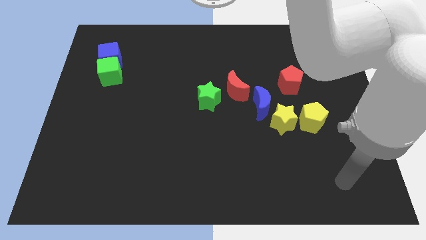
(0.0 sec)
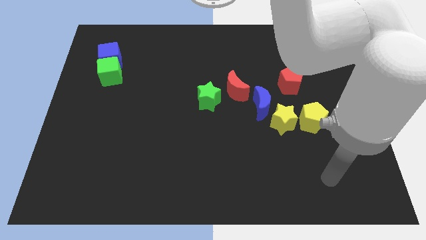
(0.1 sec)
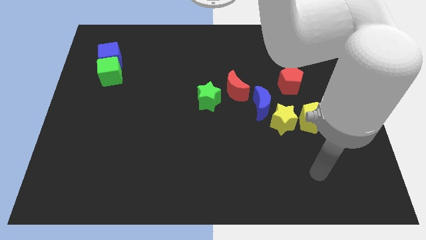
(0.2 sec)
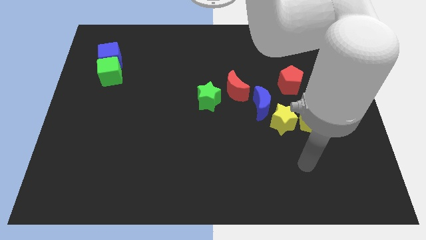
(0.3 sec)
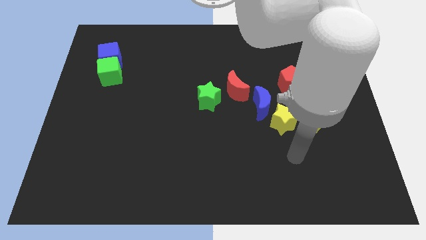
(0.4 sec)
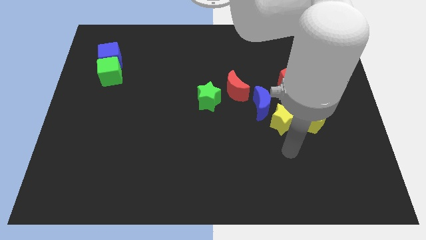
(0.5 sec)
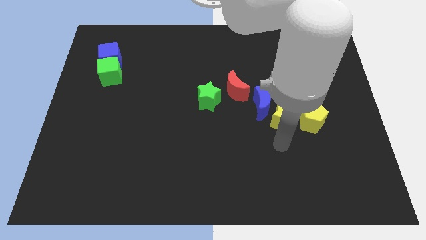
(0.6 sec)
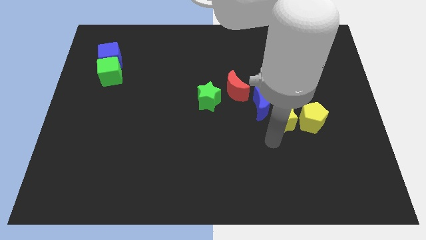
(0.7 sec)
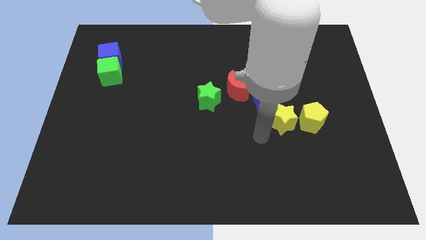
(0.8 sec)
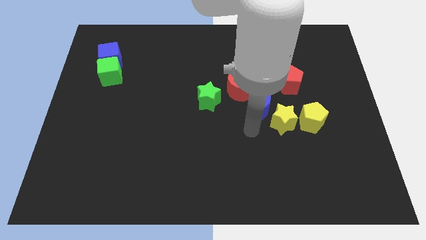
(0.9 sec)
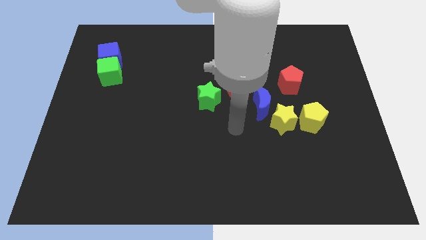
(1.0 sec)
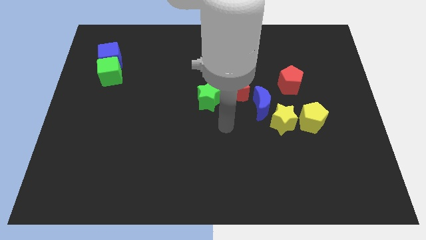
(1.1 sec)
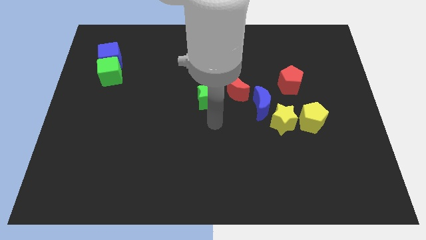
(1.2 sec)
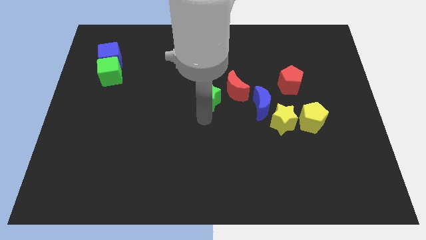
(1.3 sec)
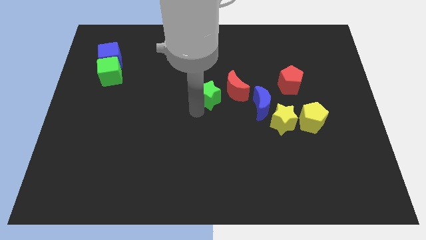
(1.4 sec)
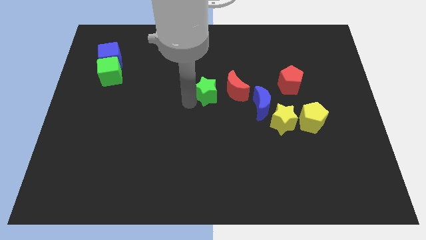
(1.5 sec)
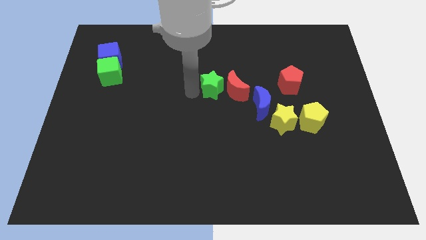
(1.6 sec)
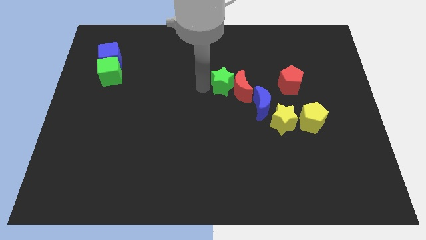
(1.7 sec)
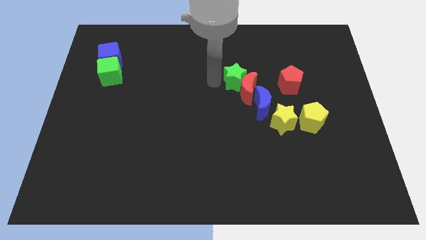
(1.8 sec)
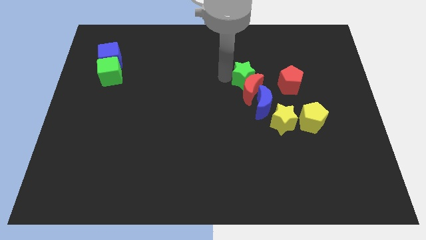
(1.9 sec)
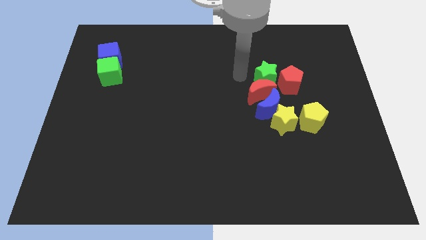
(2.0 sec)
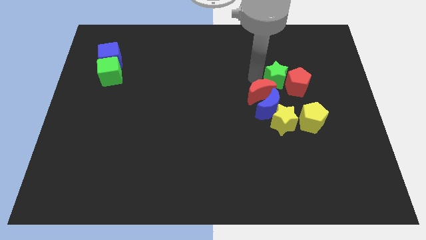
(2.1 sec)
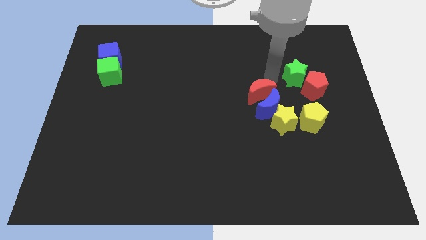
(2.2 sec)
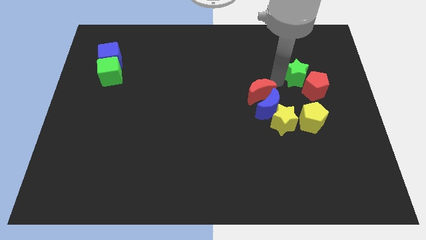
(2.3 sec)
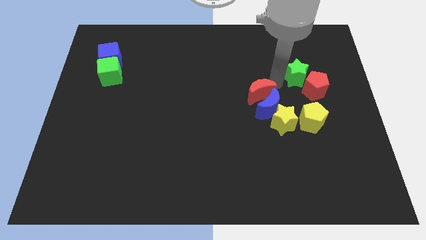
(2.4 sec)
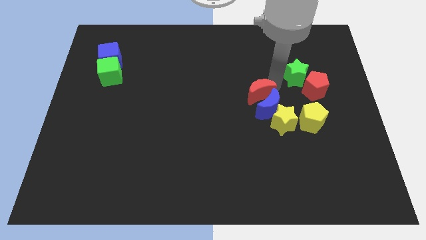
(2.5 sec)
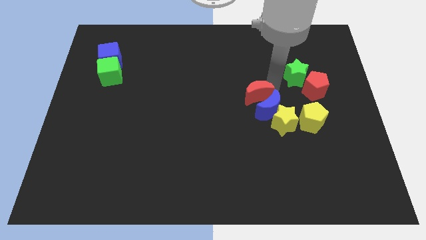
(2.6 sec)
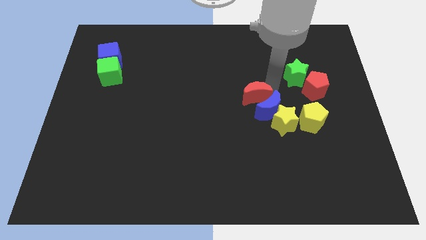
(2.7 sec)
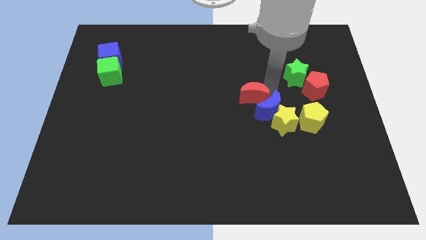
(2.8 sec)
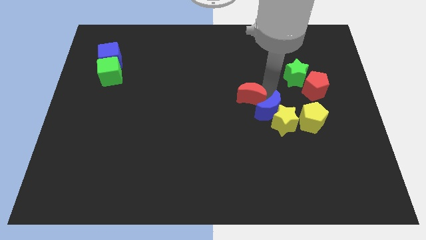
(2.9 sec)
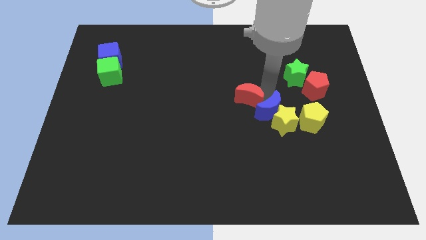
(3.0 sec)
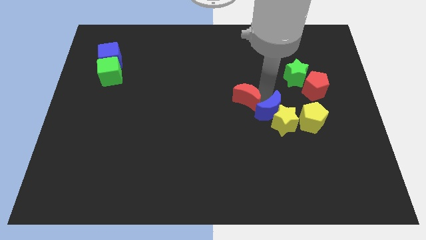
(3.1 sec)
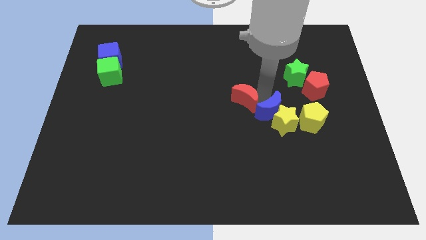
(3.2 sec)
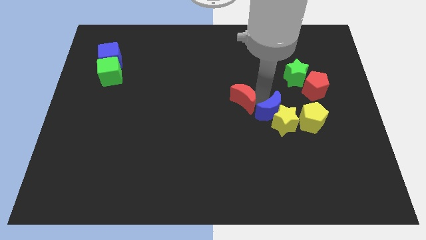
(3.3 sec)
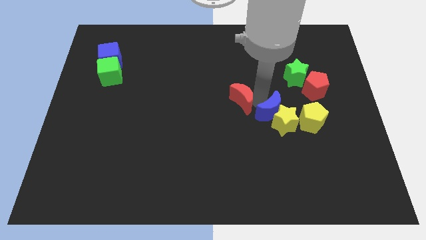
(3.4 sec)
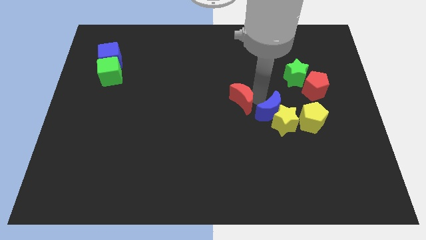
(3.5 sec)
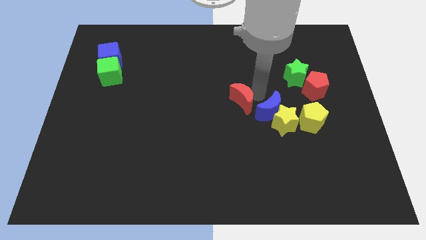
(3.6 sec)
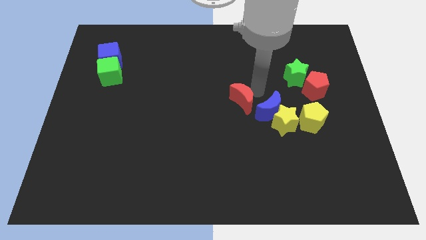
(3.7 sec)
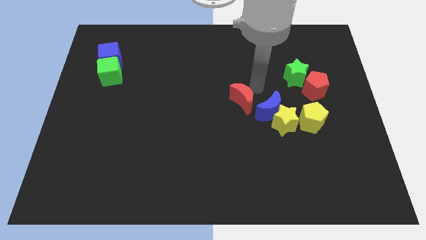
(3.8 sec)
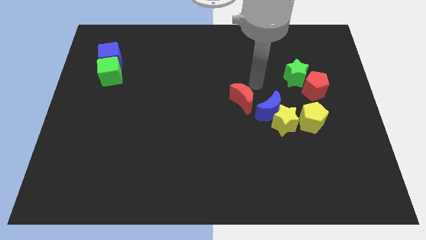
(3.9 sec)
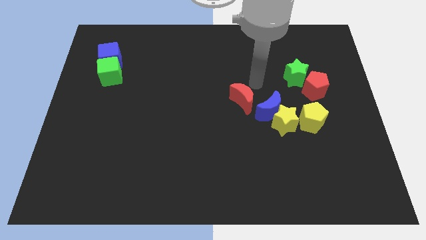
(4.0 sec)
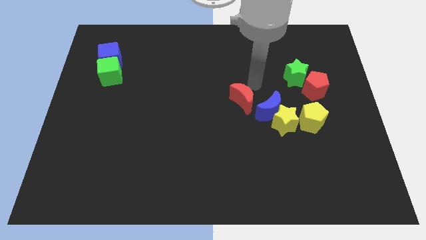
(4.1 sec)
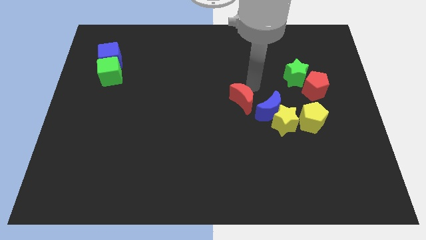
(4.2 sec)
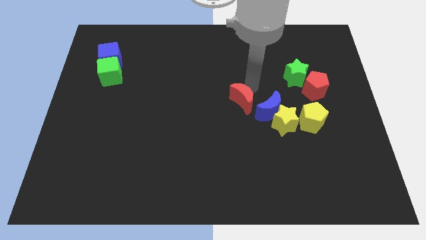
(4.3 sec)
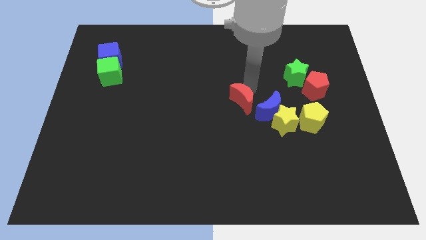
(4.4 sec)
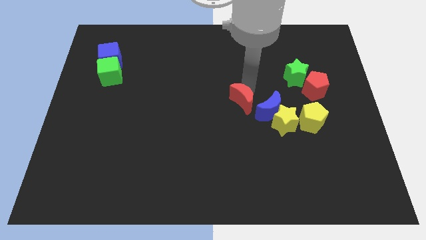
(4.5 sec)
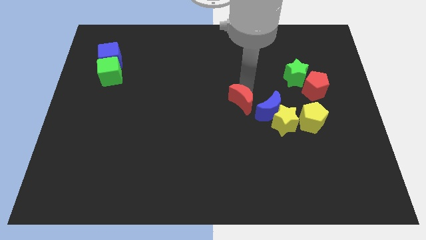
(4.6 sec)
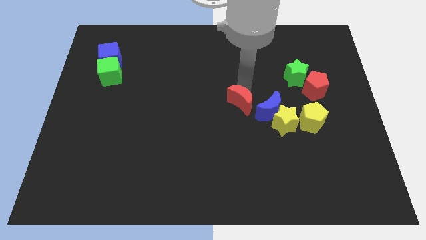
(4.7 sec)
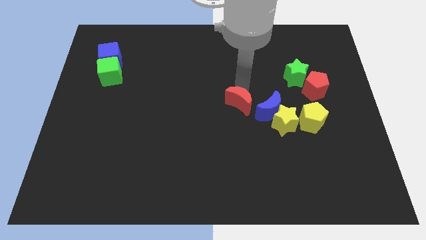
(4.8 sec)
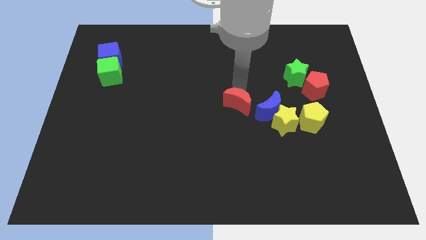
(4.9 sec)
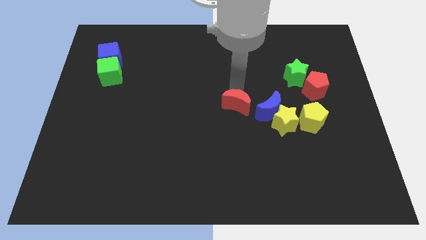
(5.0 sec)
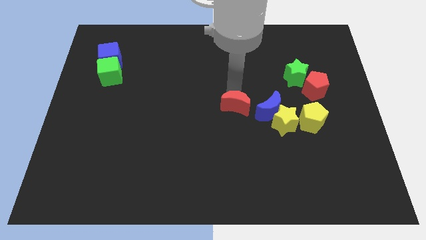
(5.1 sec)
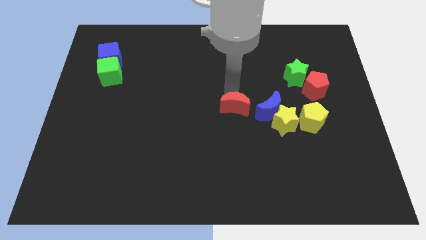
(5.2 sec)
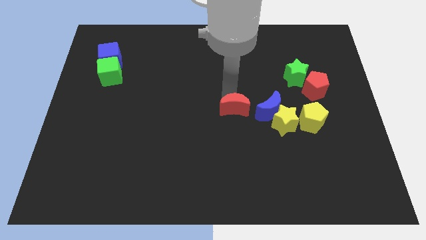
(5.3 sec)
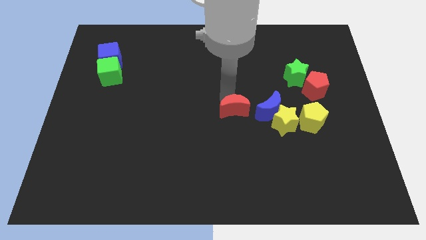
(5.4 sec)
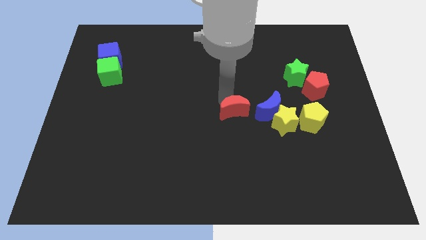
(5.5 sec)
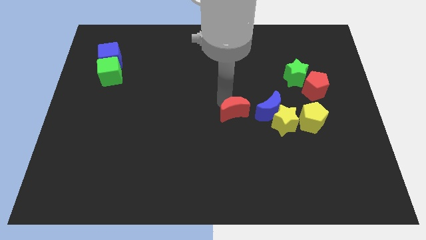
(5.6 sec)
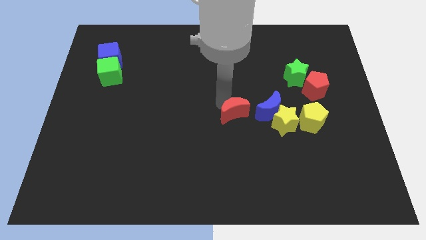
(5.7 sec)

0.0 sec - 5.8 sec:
slightly slide the red moon downwards

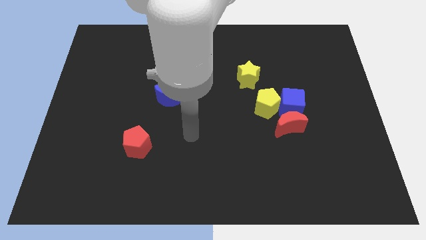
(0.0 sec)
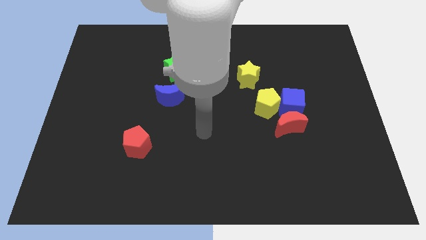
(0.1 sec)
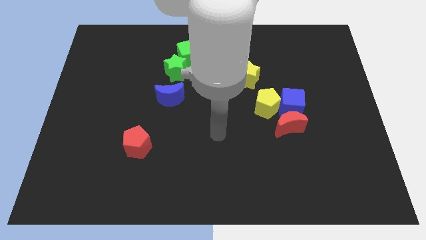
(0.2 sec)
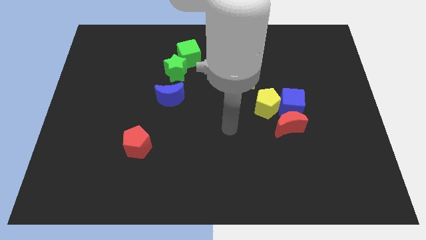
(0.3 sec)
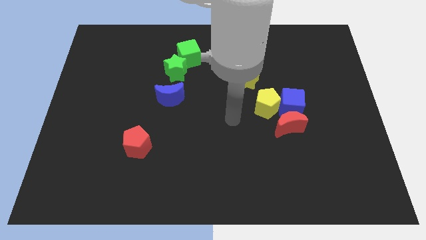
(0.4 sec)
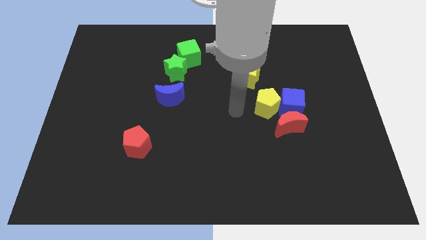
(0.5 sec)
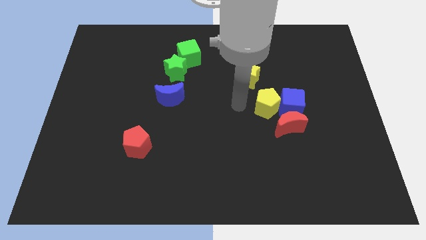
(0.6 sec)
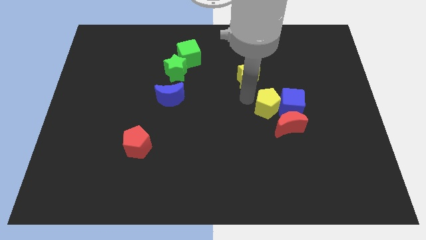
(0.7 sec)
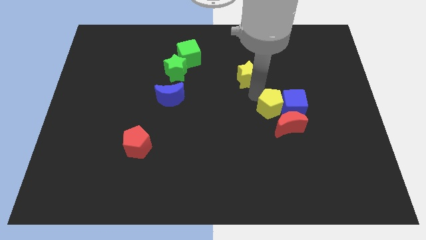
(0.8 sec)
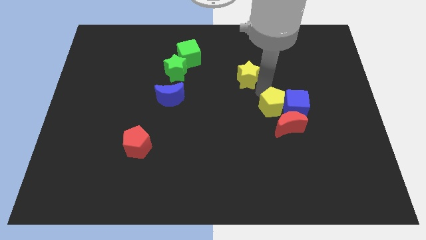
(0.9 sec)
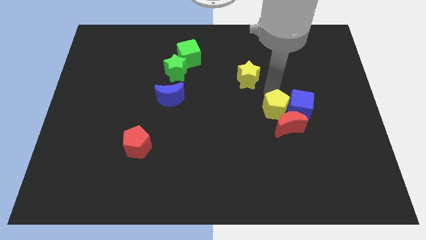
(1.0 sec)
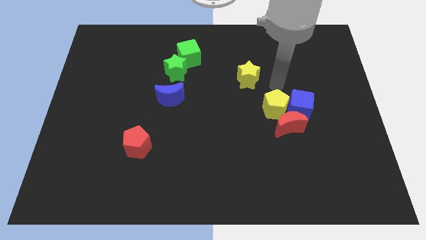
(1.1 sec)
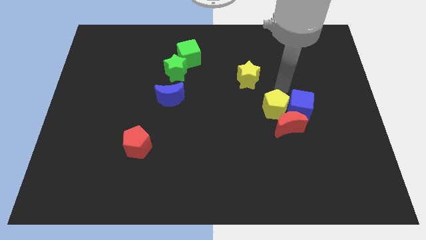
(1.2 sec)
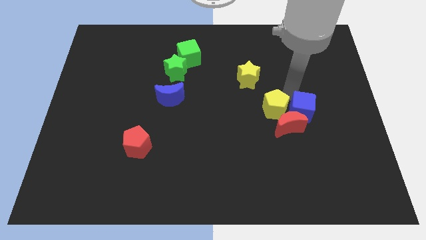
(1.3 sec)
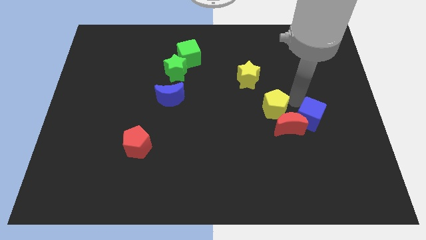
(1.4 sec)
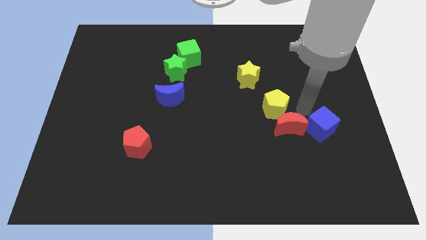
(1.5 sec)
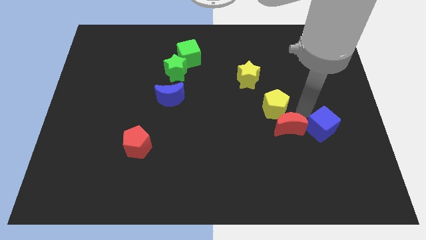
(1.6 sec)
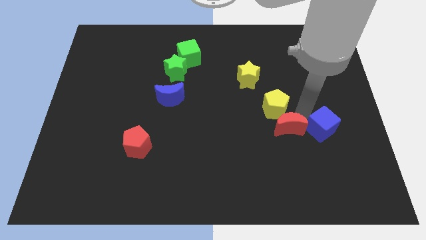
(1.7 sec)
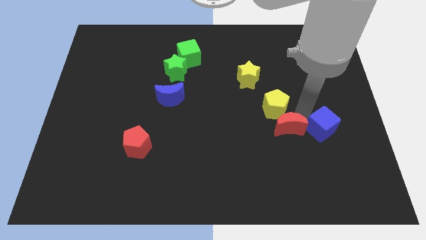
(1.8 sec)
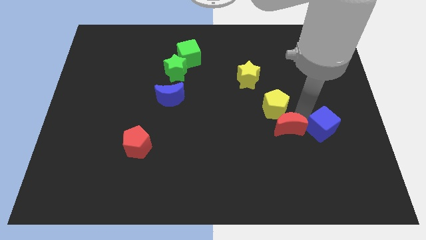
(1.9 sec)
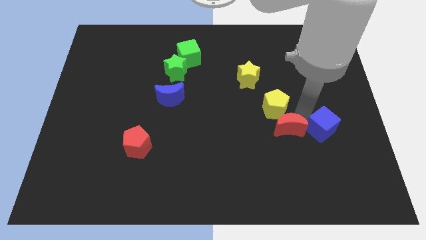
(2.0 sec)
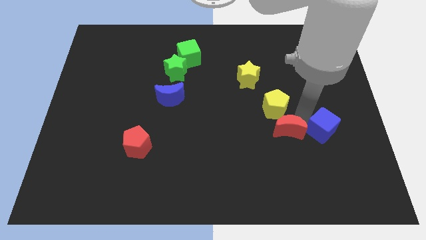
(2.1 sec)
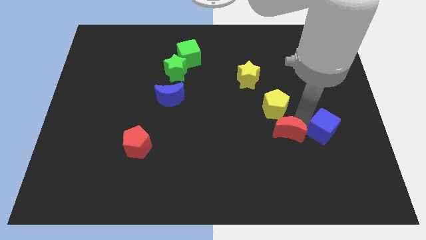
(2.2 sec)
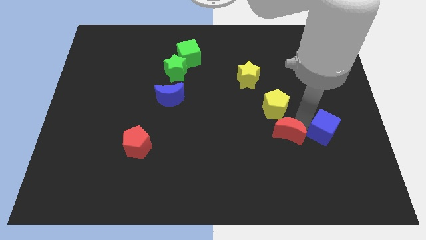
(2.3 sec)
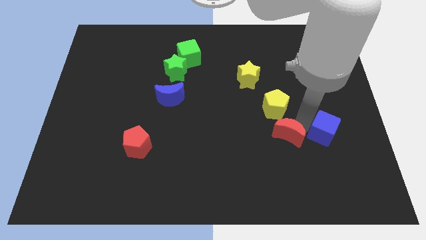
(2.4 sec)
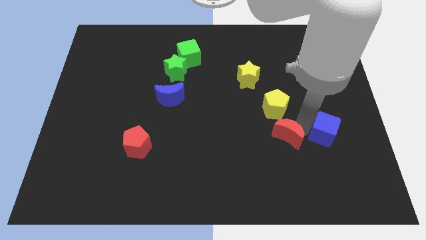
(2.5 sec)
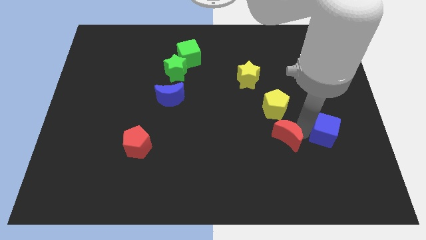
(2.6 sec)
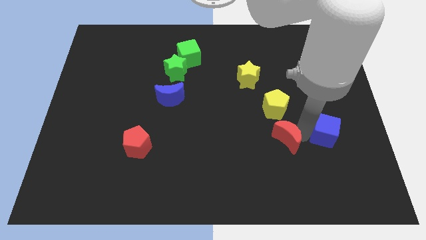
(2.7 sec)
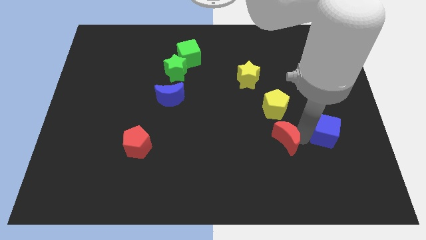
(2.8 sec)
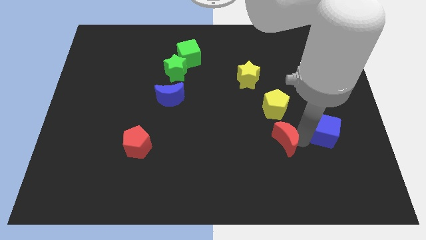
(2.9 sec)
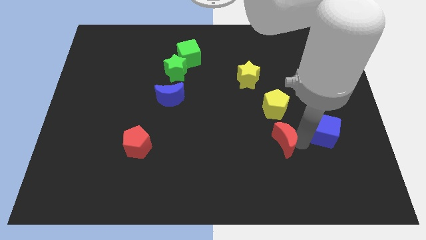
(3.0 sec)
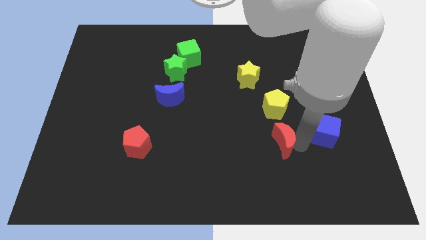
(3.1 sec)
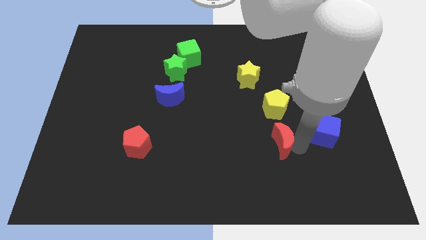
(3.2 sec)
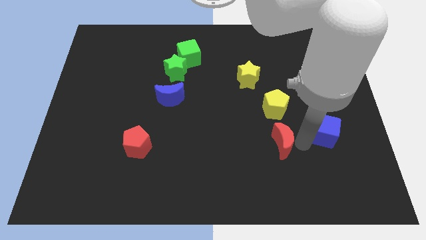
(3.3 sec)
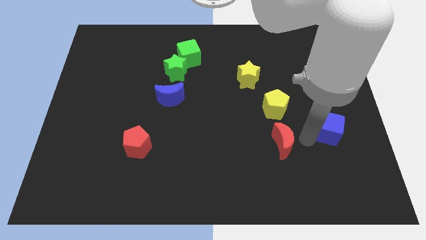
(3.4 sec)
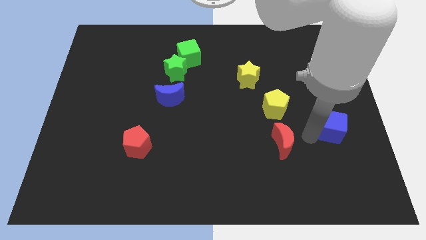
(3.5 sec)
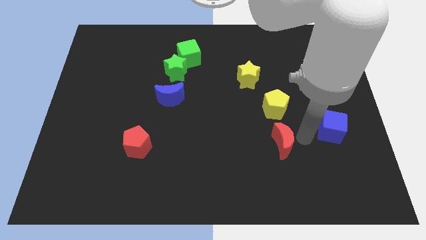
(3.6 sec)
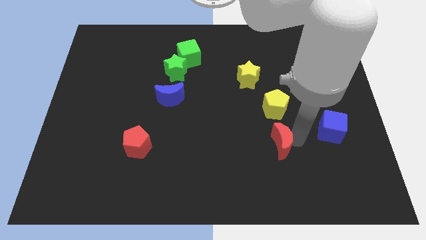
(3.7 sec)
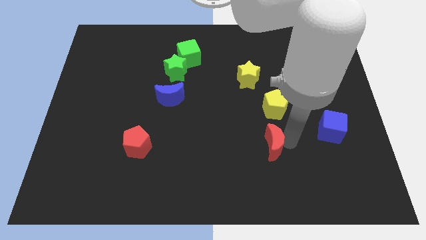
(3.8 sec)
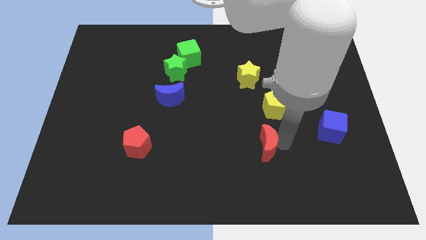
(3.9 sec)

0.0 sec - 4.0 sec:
push the red moon a little downwards and then to the left
